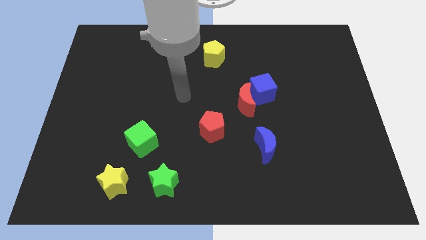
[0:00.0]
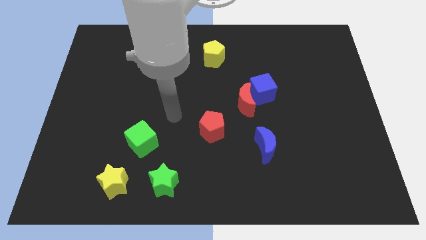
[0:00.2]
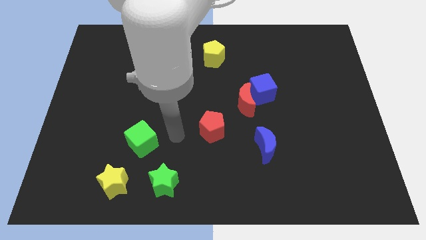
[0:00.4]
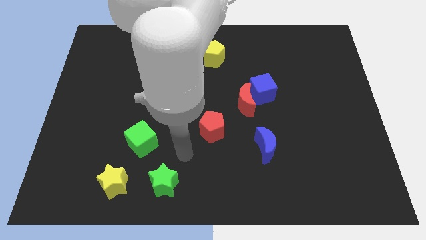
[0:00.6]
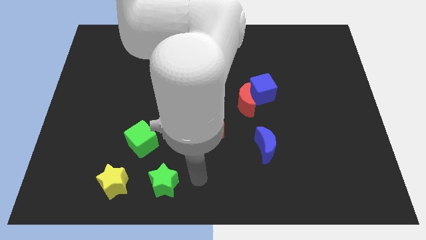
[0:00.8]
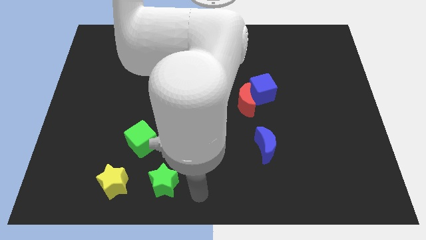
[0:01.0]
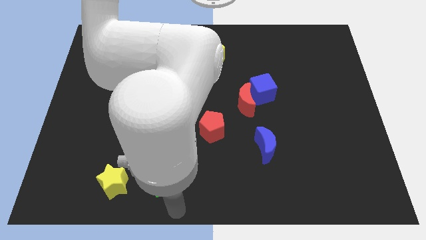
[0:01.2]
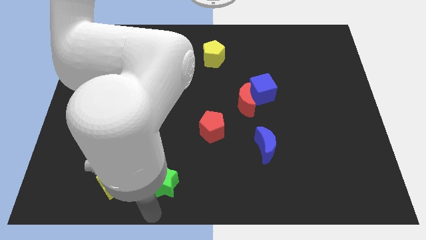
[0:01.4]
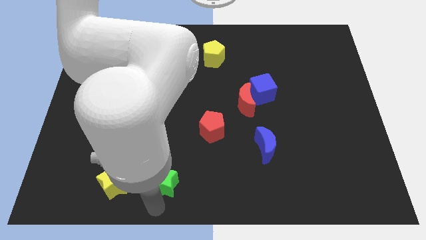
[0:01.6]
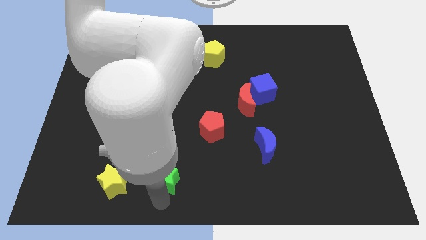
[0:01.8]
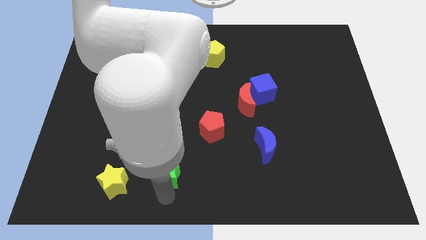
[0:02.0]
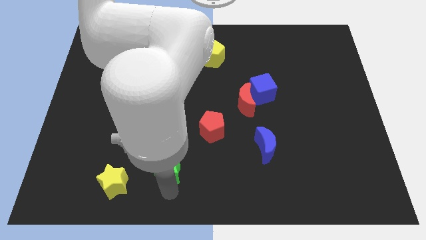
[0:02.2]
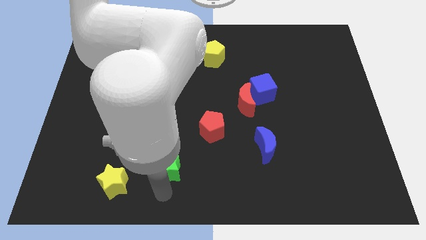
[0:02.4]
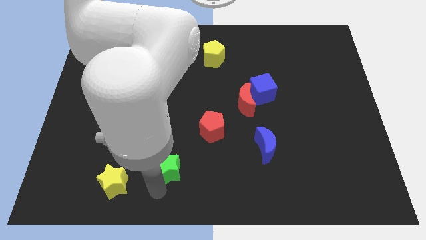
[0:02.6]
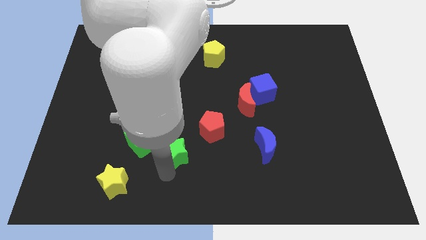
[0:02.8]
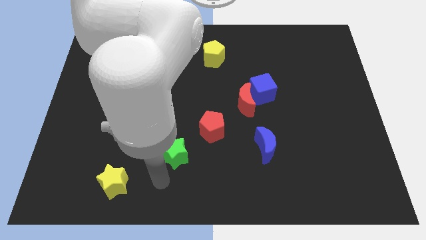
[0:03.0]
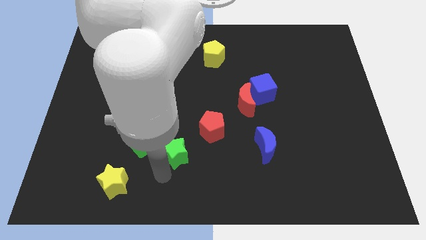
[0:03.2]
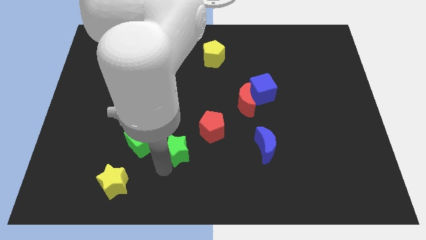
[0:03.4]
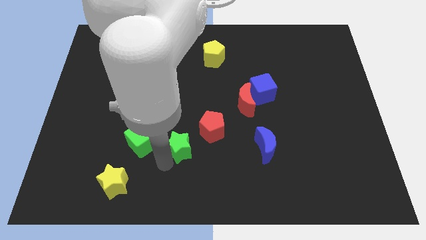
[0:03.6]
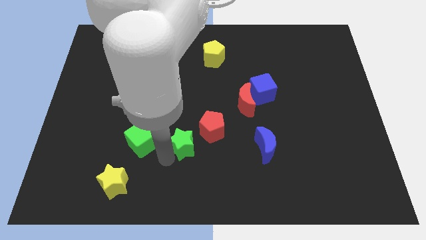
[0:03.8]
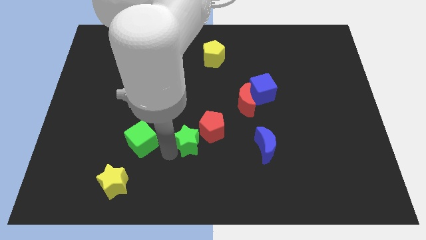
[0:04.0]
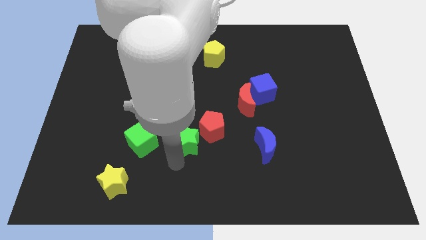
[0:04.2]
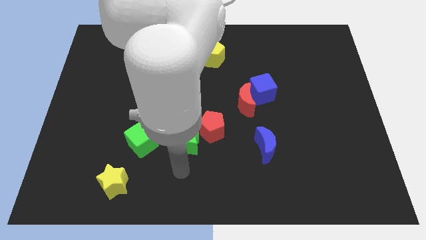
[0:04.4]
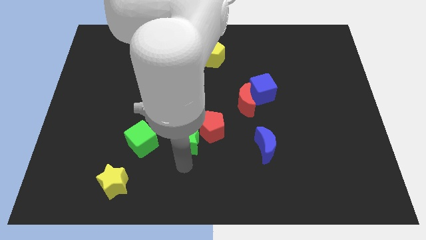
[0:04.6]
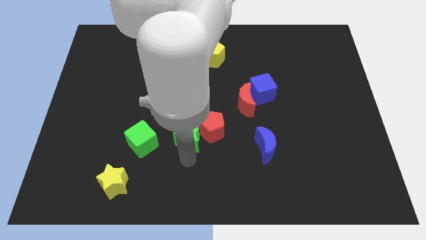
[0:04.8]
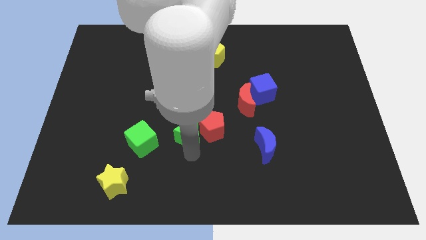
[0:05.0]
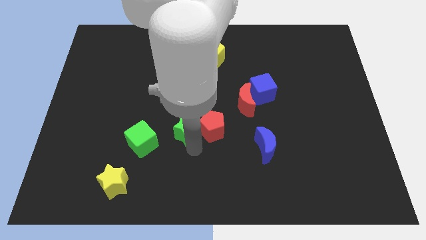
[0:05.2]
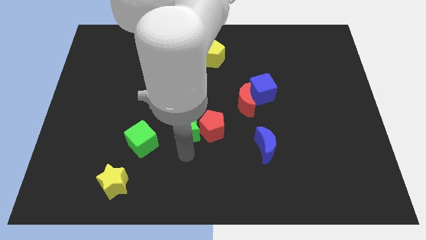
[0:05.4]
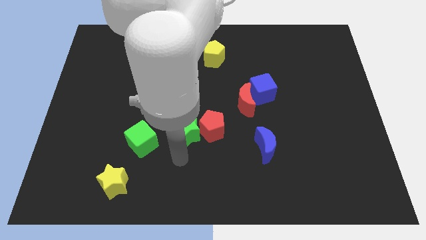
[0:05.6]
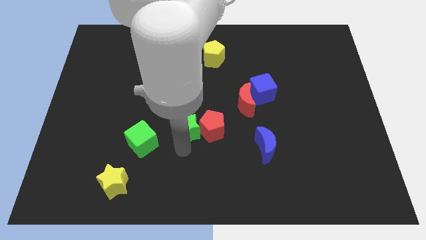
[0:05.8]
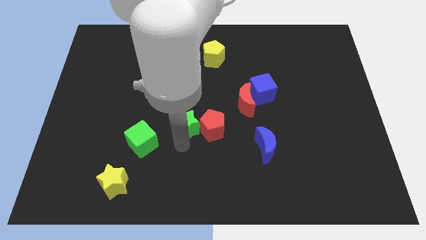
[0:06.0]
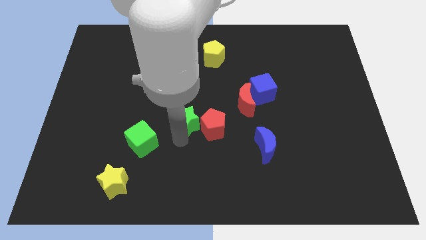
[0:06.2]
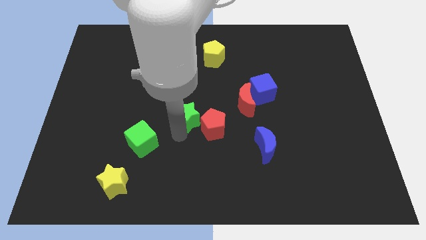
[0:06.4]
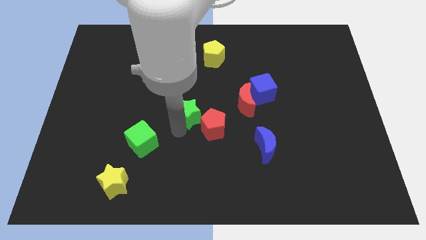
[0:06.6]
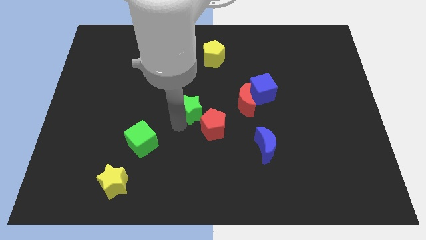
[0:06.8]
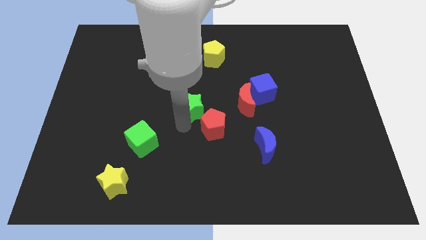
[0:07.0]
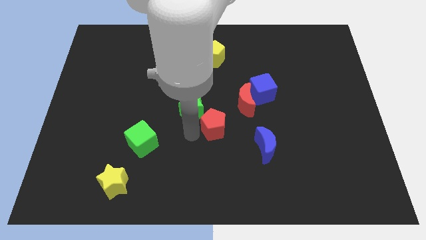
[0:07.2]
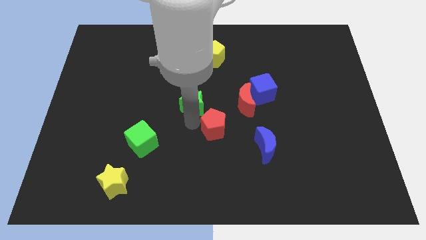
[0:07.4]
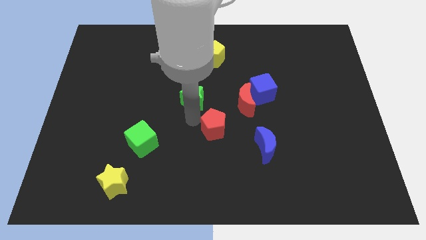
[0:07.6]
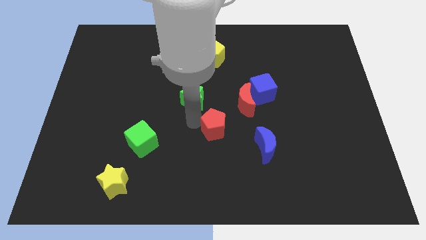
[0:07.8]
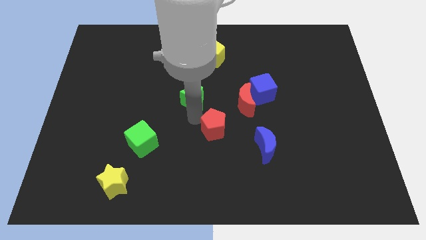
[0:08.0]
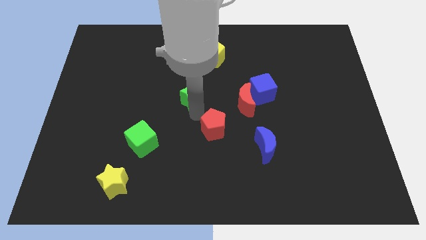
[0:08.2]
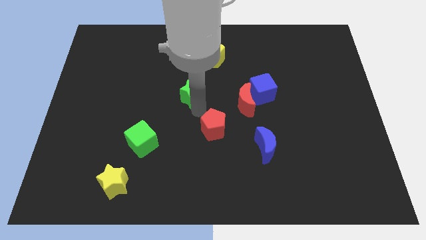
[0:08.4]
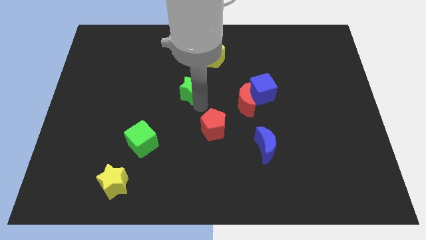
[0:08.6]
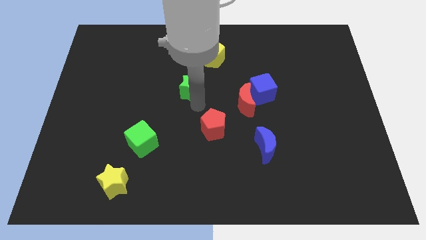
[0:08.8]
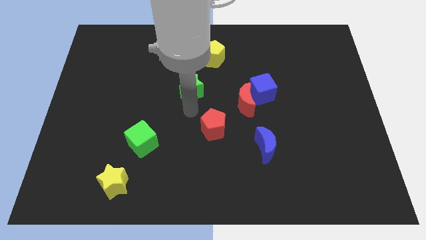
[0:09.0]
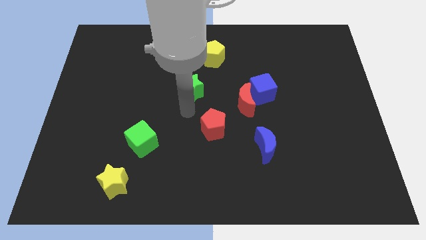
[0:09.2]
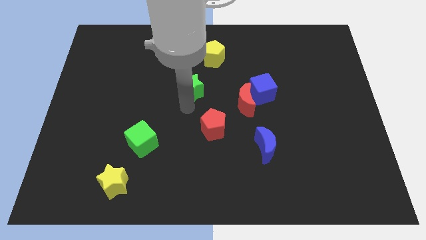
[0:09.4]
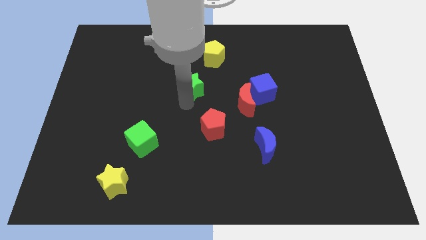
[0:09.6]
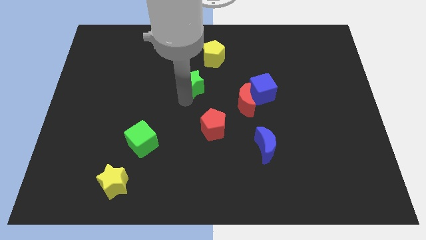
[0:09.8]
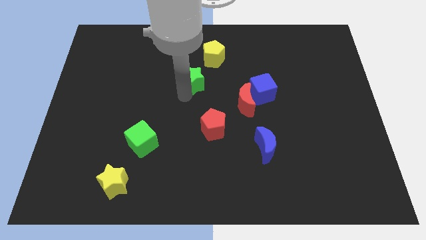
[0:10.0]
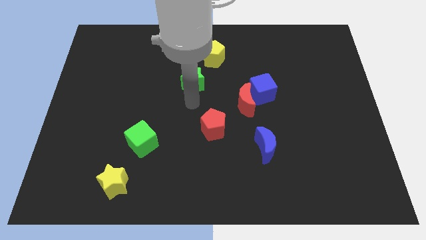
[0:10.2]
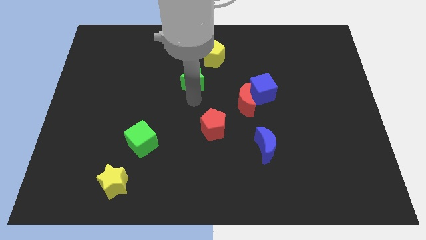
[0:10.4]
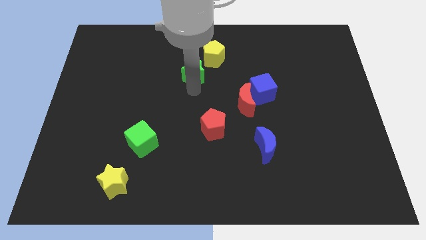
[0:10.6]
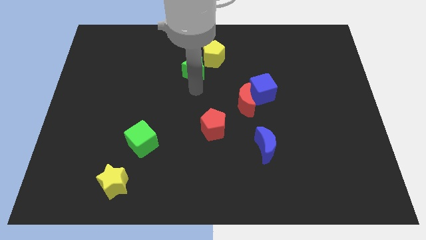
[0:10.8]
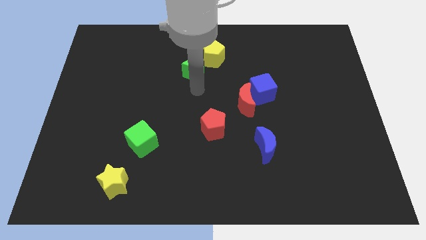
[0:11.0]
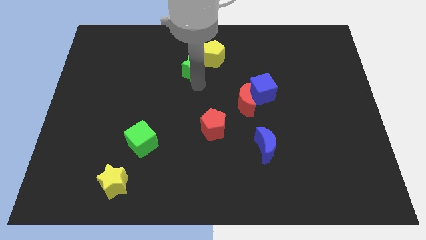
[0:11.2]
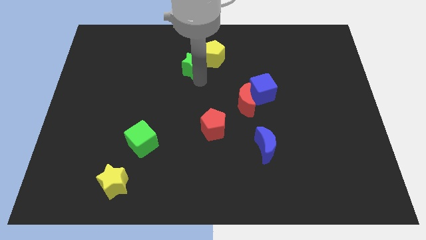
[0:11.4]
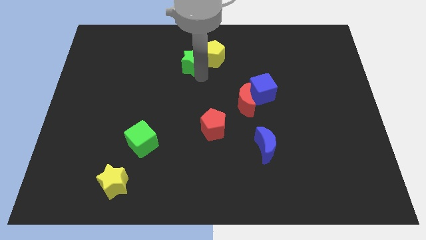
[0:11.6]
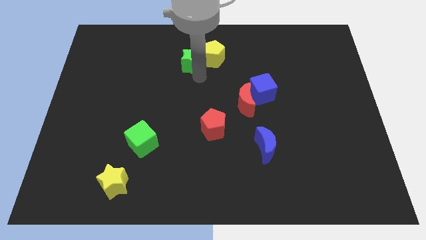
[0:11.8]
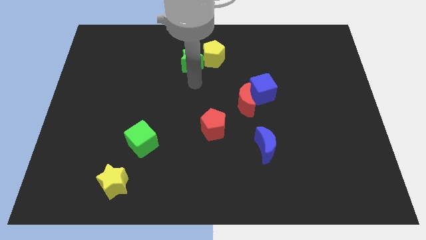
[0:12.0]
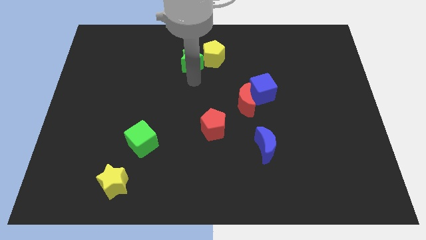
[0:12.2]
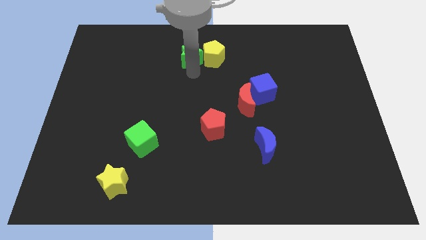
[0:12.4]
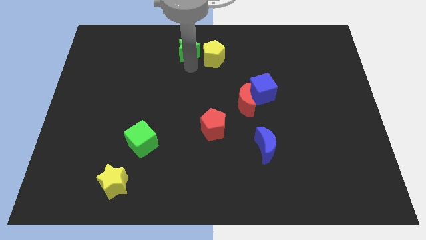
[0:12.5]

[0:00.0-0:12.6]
put the green star to the top side
